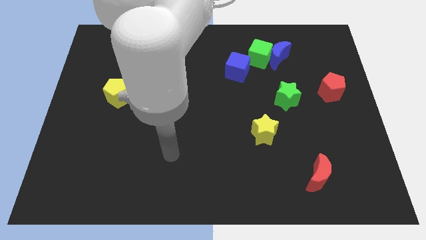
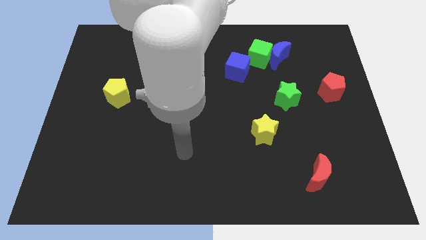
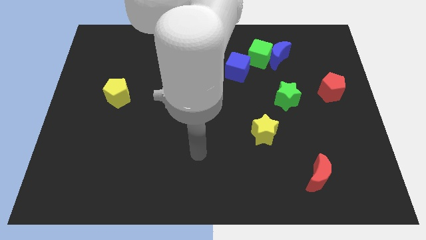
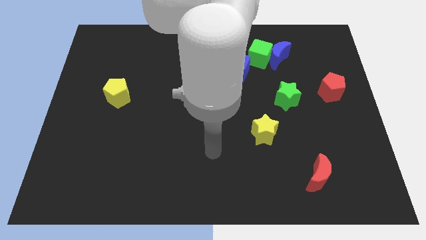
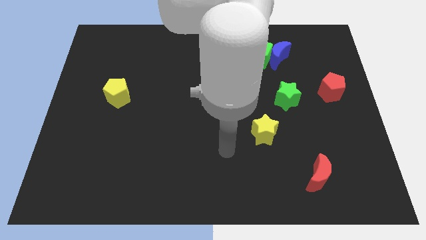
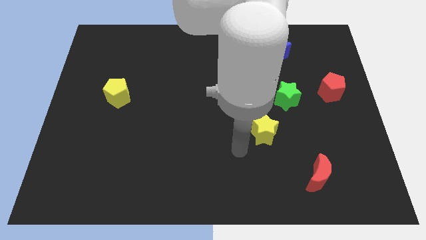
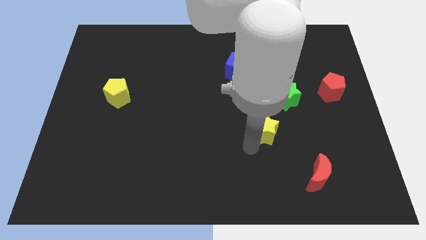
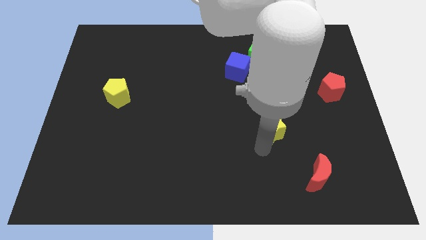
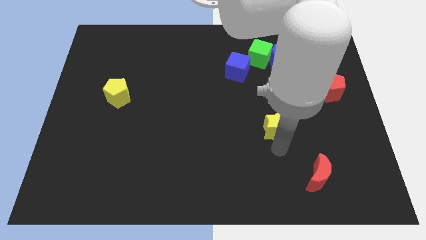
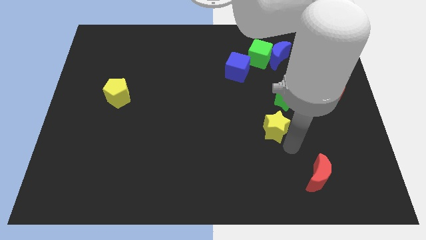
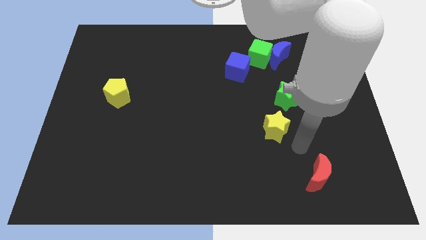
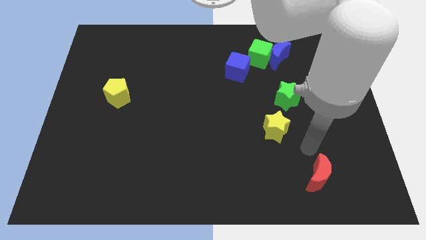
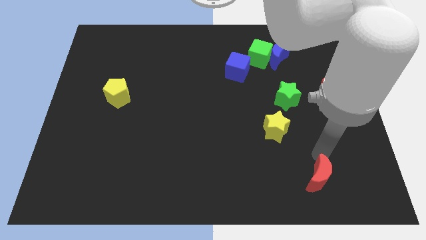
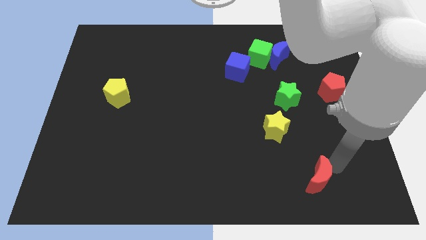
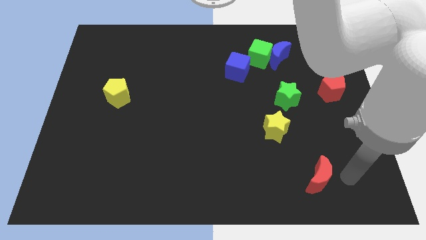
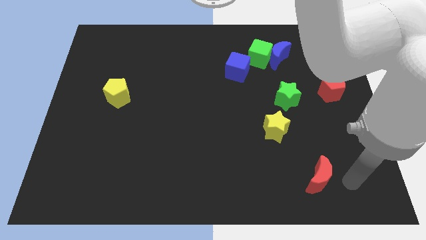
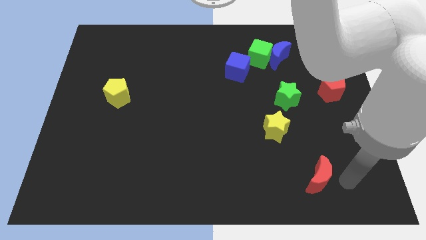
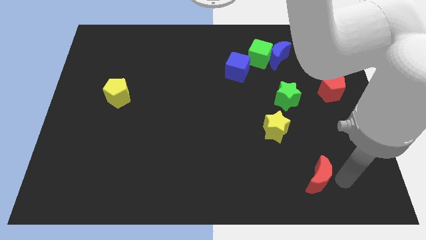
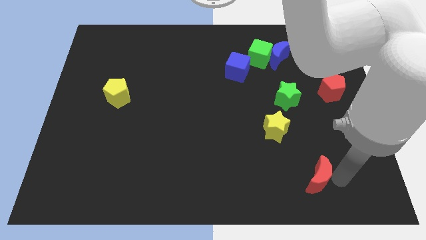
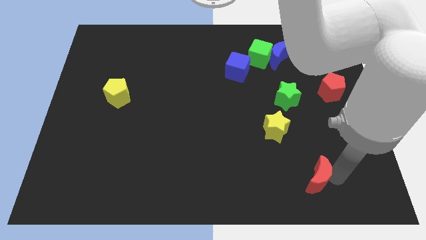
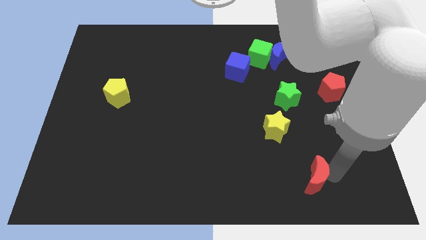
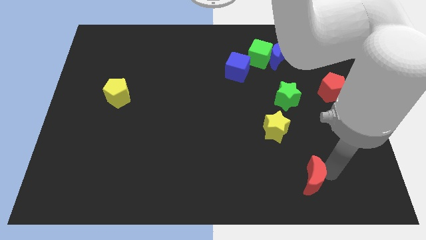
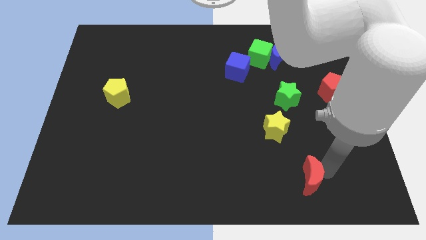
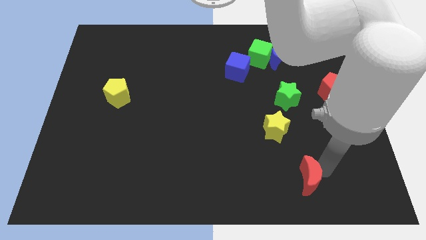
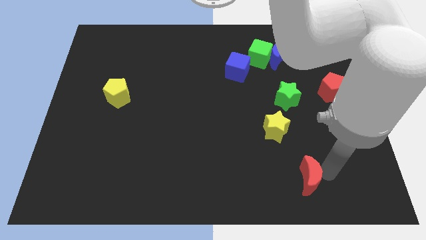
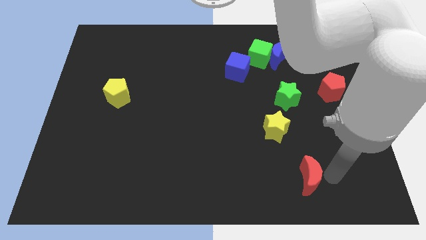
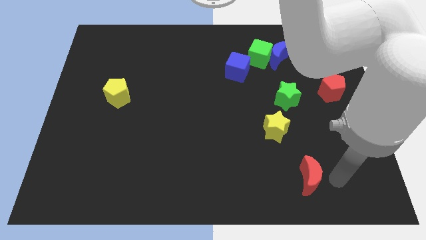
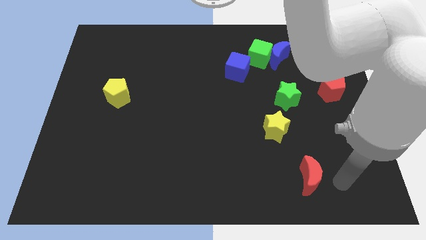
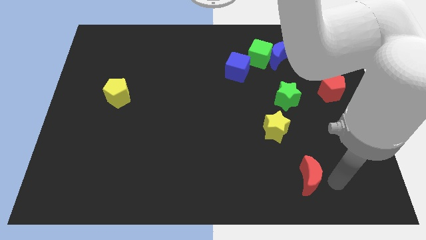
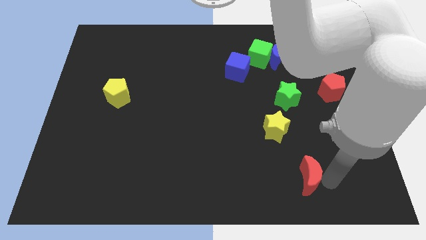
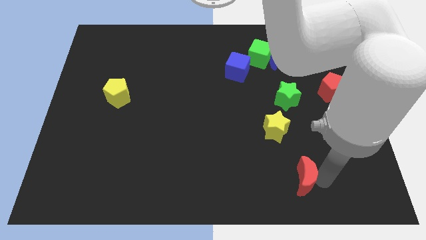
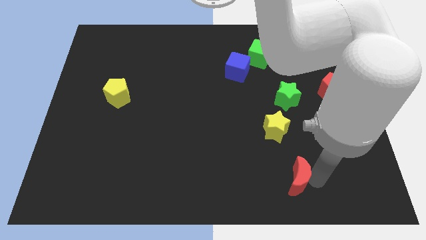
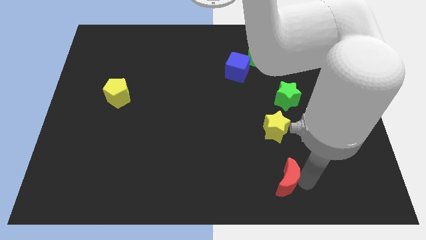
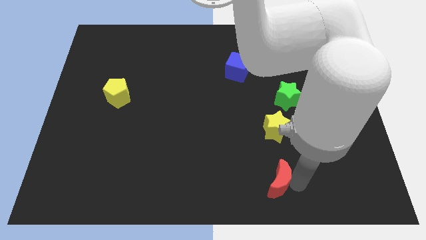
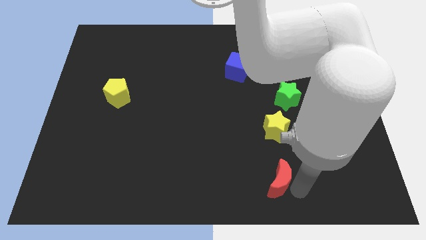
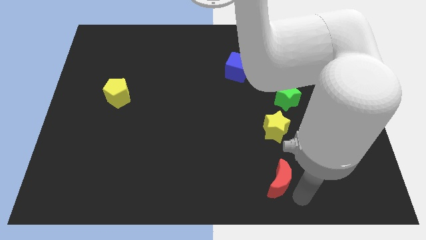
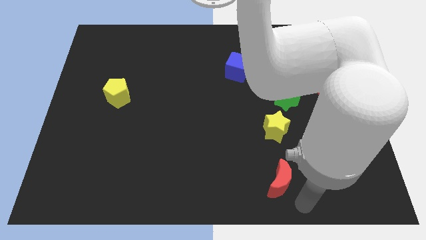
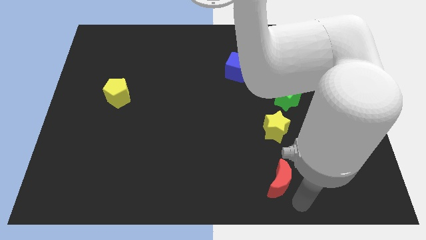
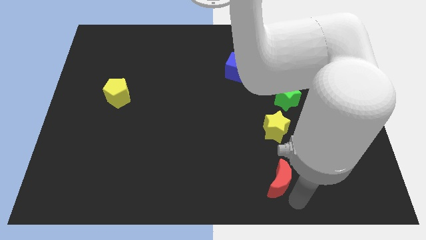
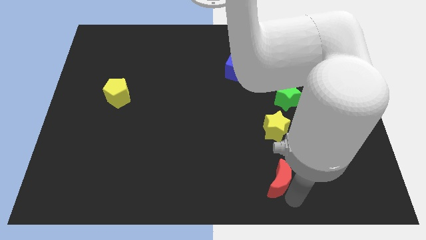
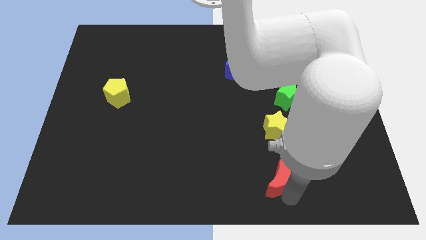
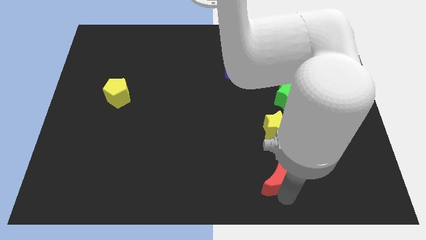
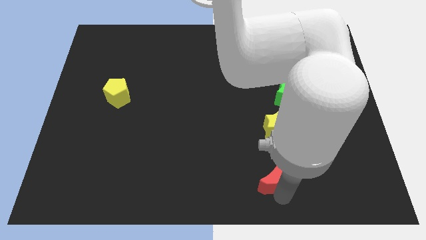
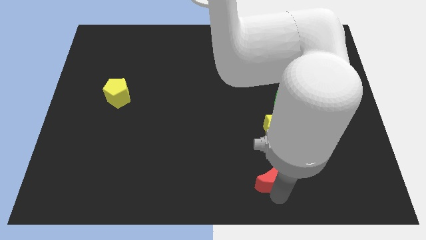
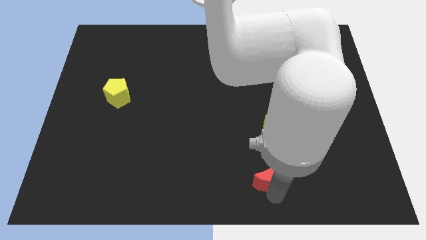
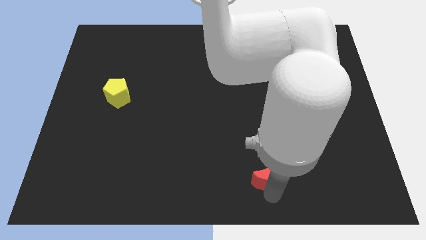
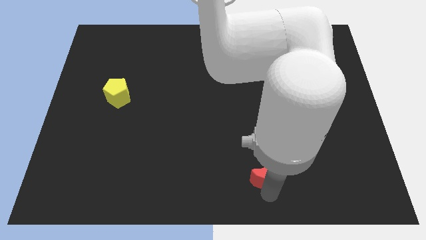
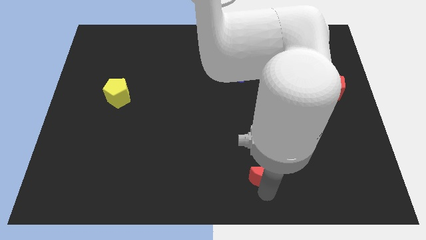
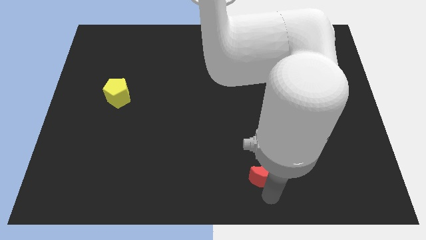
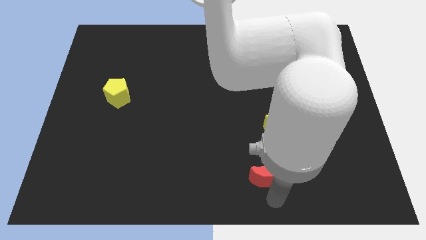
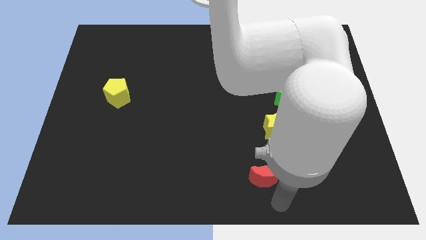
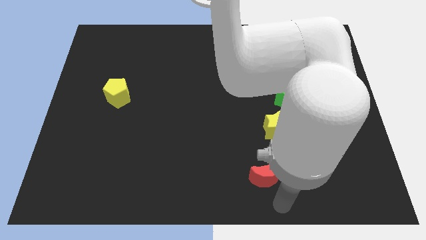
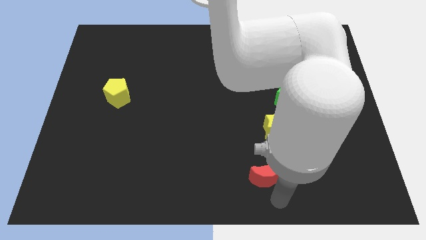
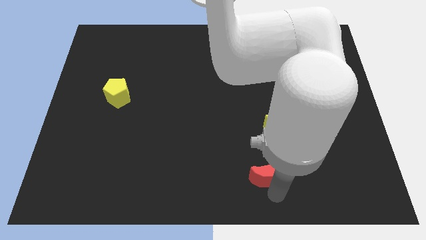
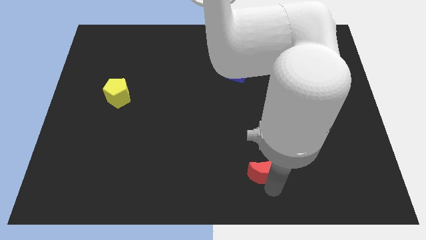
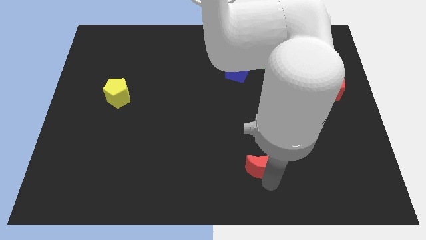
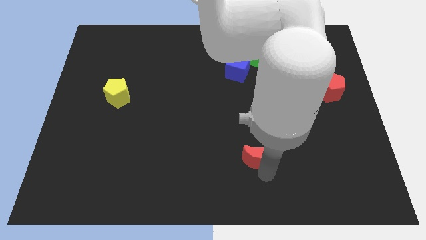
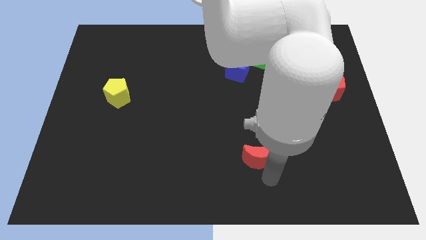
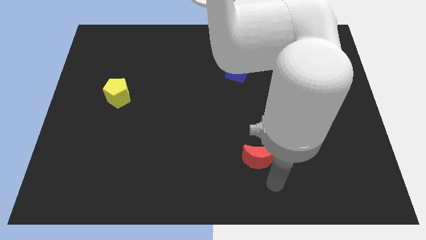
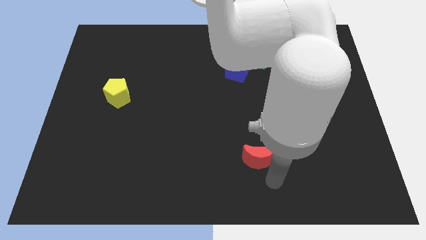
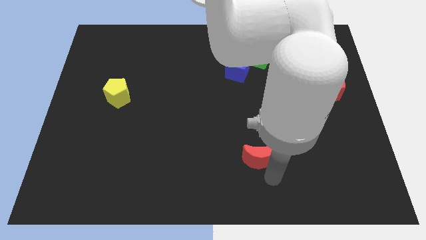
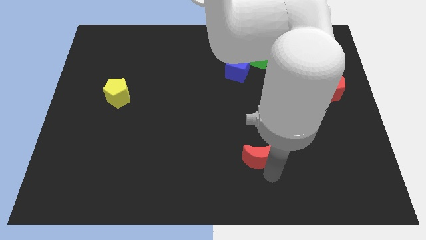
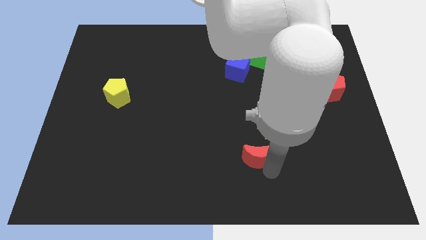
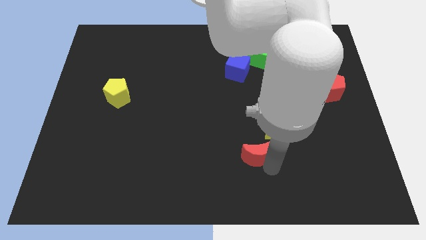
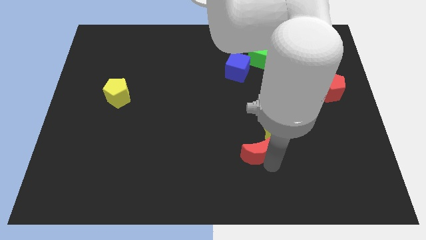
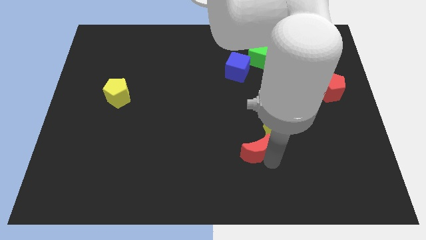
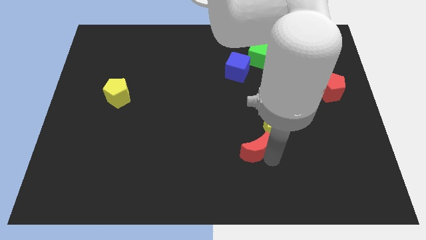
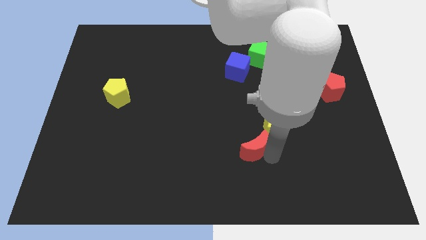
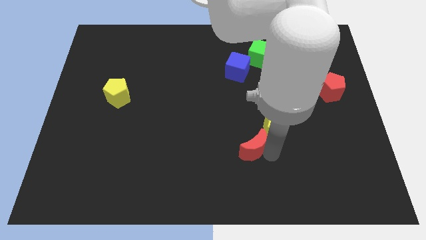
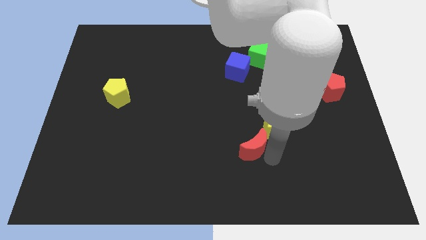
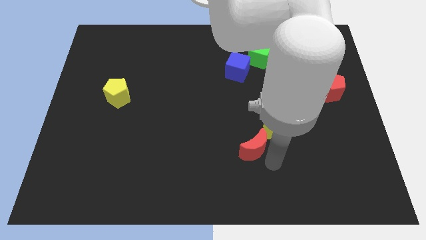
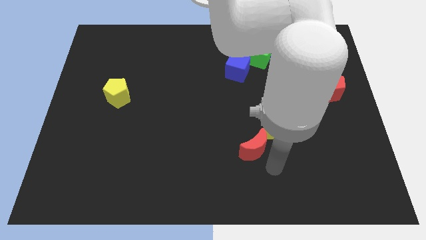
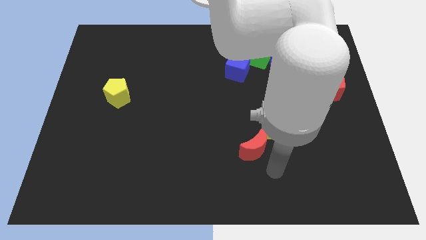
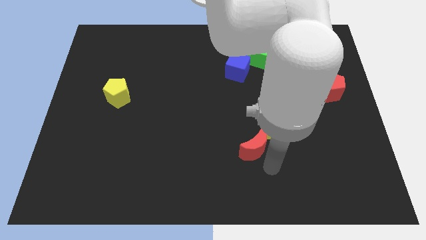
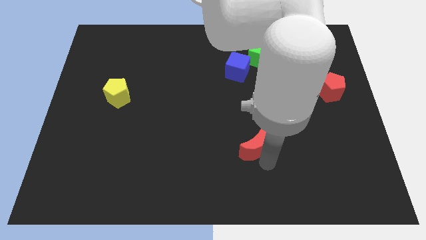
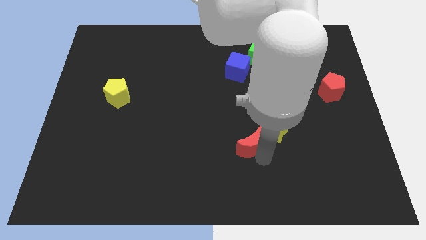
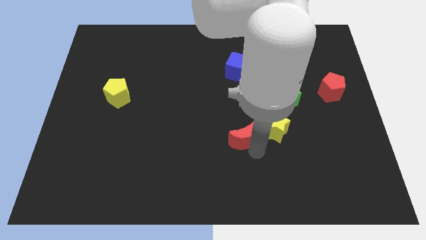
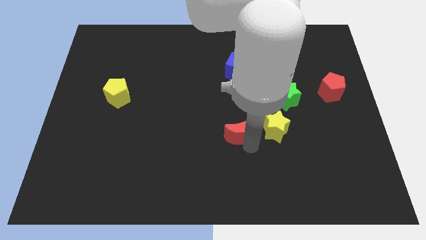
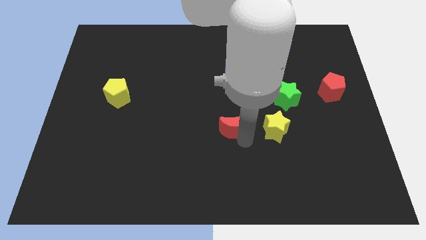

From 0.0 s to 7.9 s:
push the red moon up and then left
